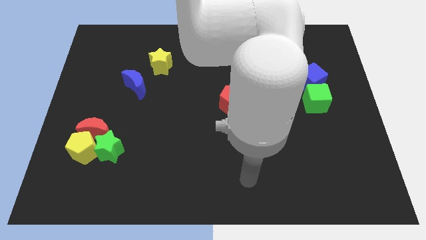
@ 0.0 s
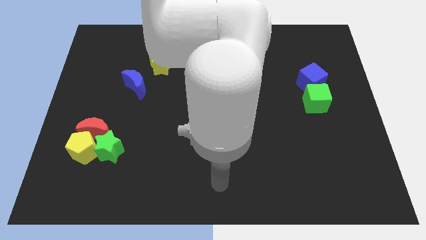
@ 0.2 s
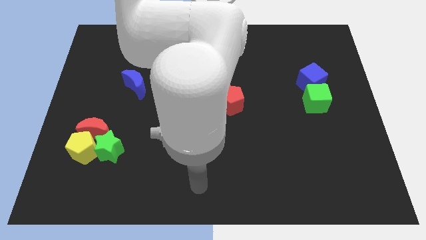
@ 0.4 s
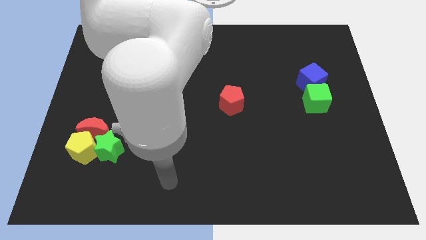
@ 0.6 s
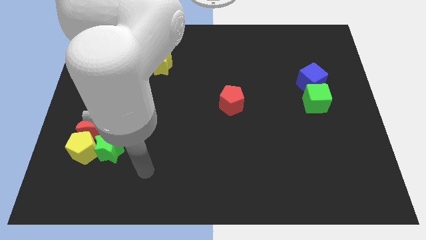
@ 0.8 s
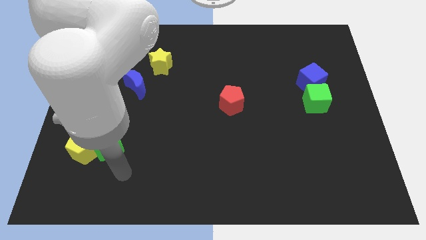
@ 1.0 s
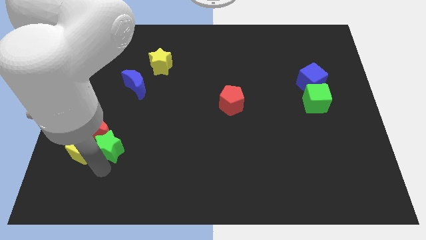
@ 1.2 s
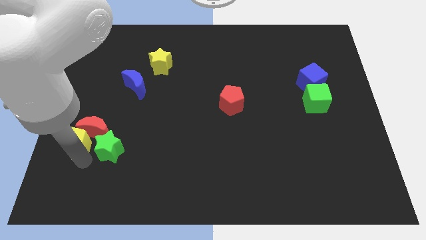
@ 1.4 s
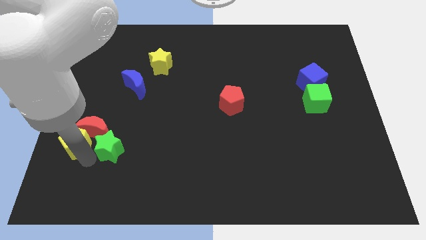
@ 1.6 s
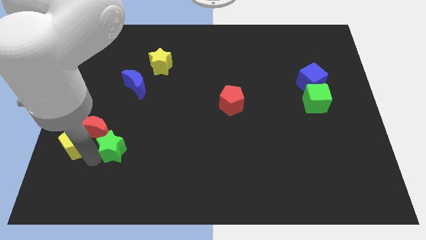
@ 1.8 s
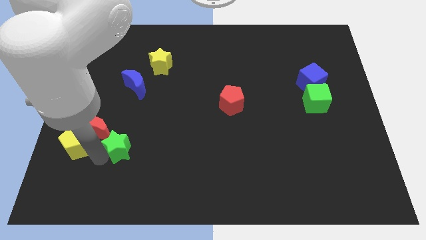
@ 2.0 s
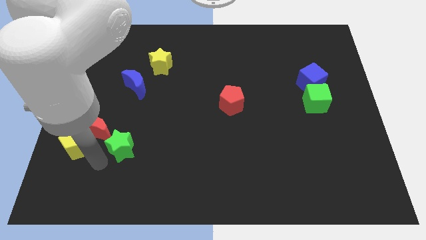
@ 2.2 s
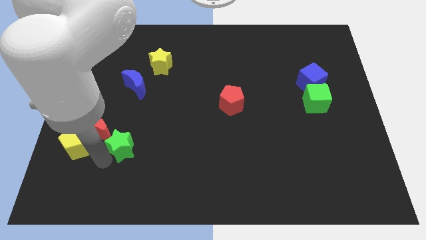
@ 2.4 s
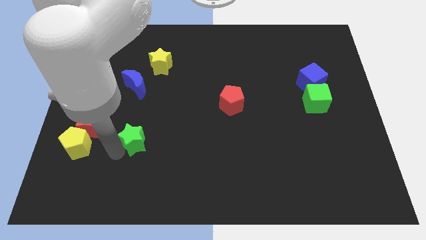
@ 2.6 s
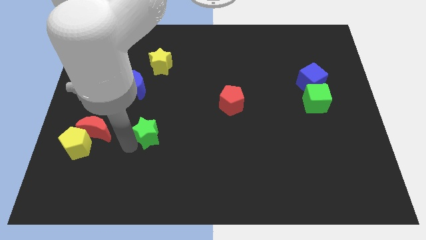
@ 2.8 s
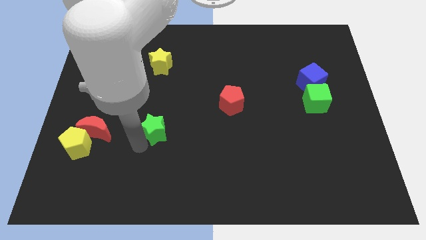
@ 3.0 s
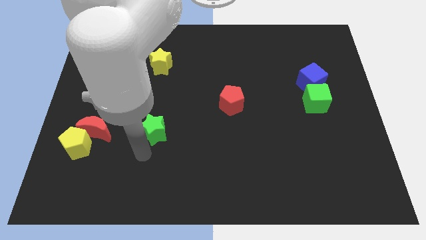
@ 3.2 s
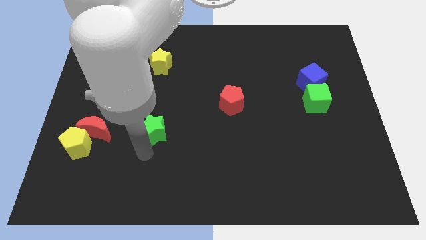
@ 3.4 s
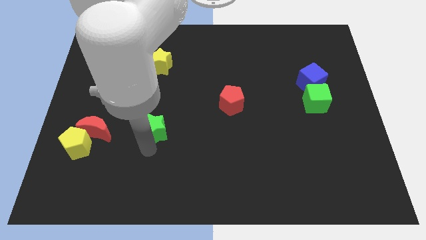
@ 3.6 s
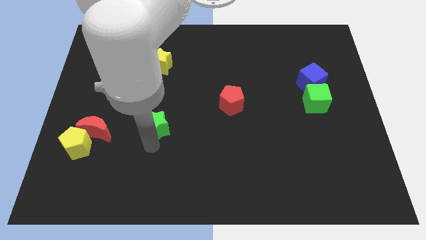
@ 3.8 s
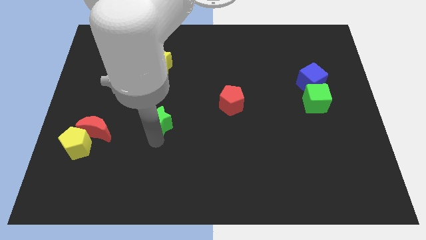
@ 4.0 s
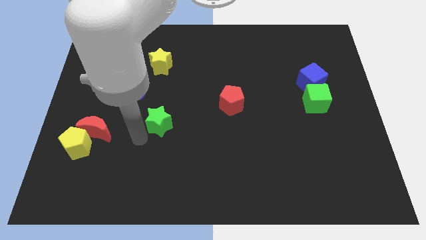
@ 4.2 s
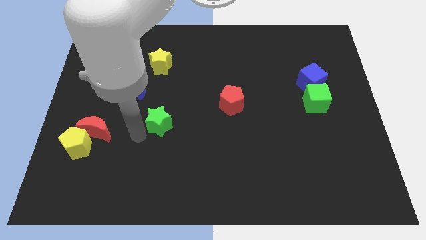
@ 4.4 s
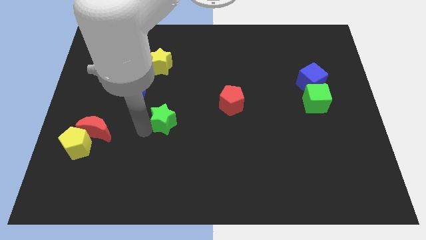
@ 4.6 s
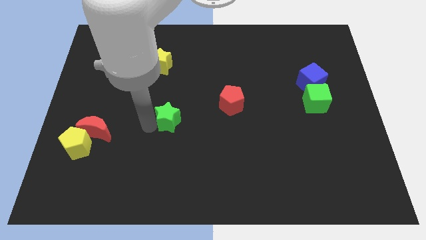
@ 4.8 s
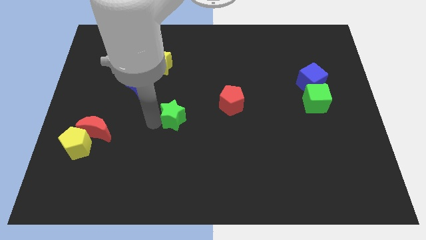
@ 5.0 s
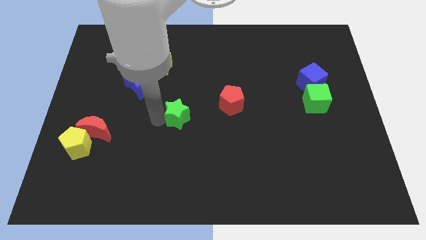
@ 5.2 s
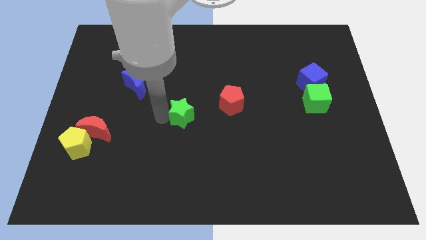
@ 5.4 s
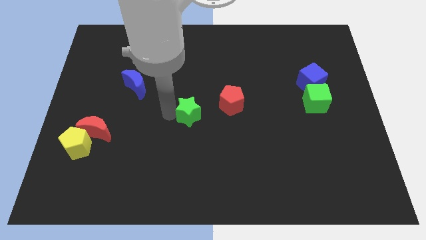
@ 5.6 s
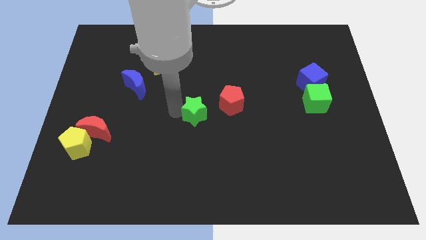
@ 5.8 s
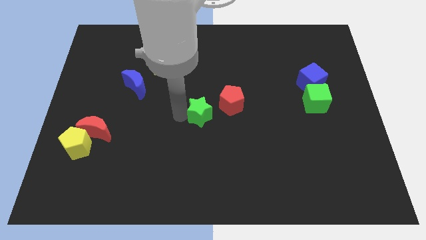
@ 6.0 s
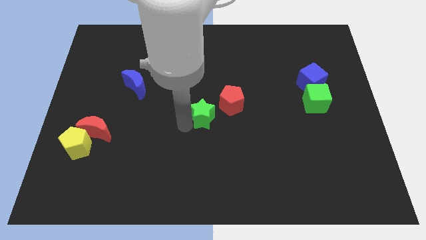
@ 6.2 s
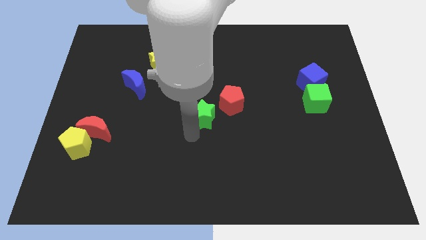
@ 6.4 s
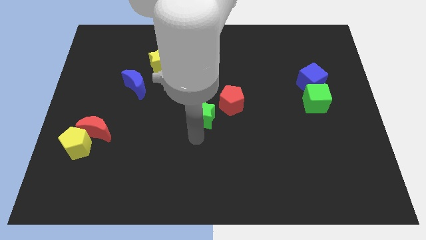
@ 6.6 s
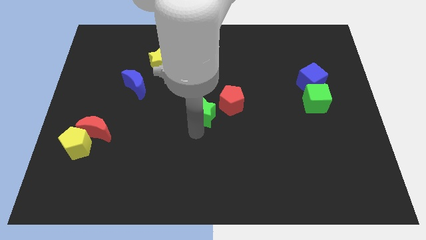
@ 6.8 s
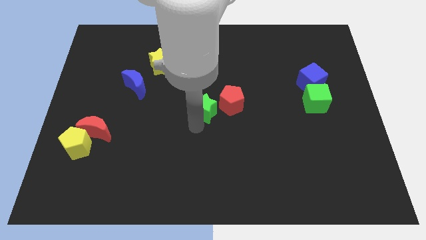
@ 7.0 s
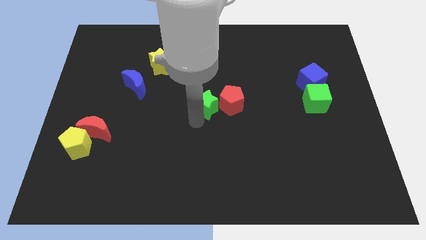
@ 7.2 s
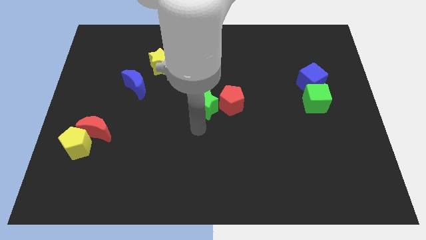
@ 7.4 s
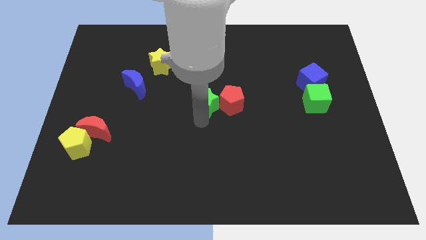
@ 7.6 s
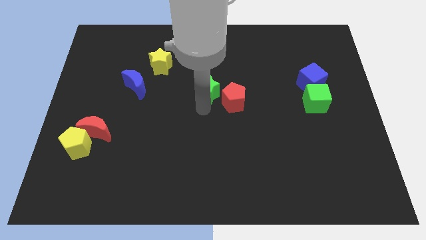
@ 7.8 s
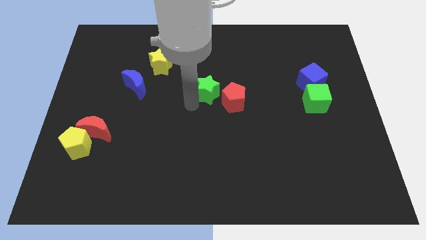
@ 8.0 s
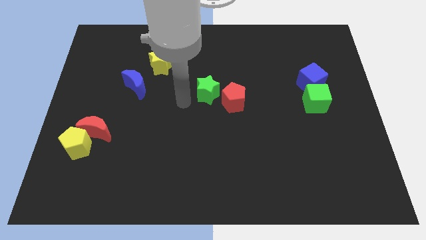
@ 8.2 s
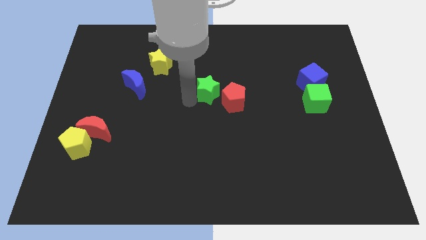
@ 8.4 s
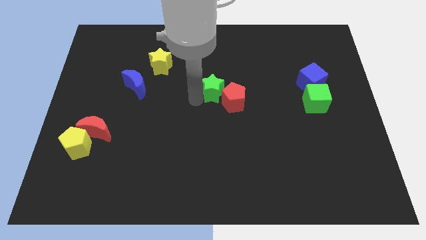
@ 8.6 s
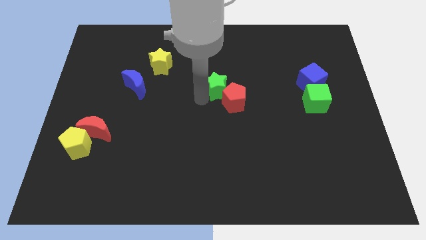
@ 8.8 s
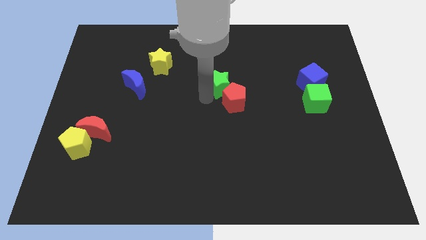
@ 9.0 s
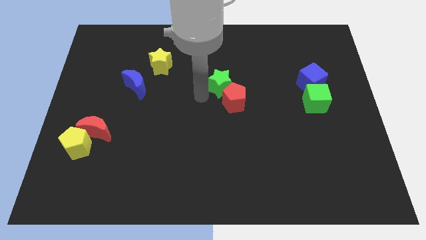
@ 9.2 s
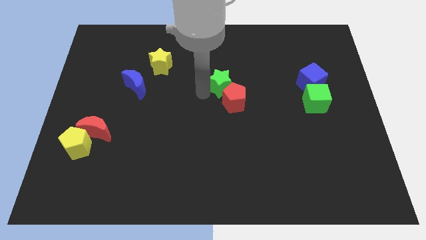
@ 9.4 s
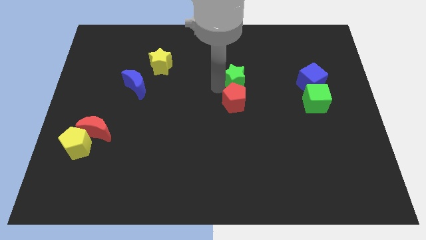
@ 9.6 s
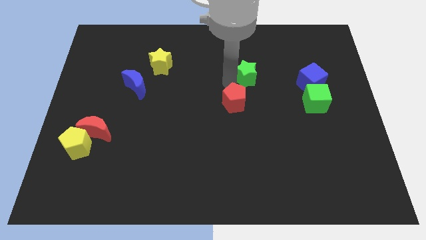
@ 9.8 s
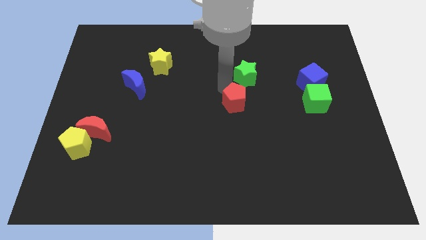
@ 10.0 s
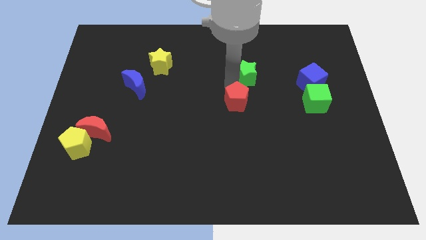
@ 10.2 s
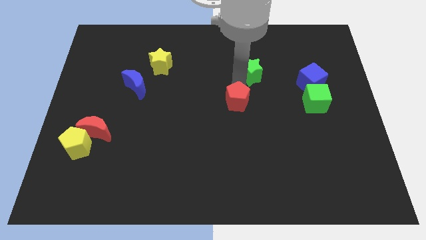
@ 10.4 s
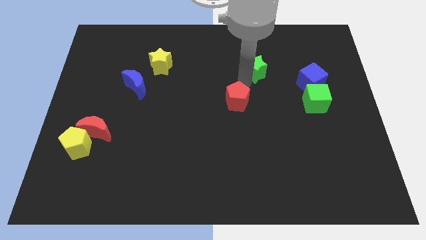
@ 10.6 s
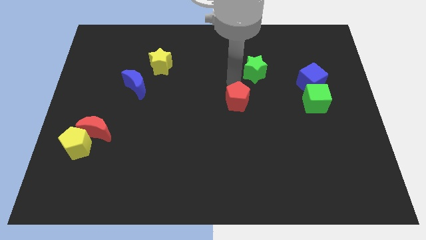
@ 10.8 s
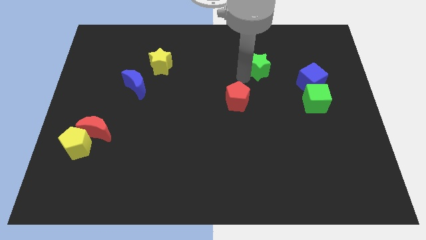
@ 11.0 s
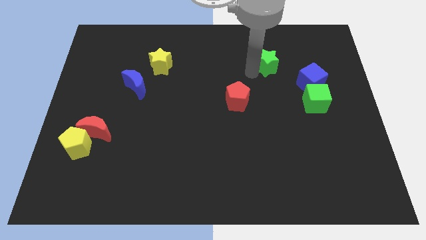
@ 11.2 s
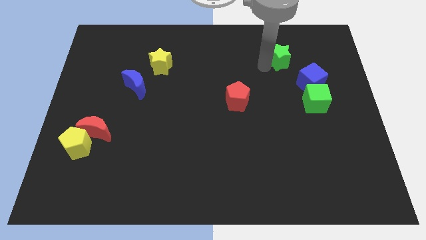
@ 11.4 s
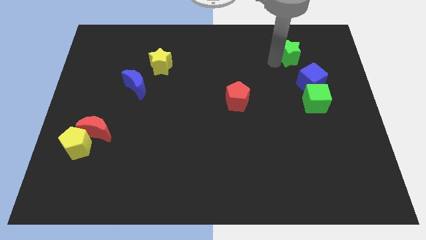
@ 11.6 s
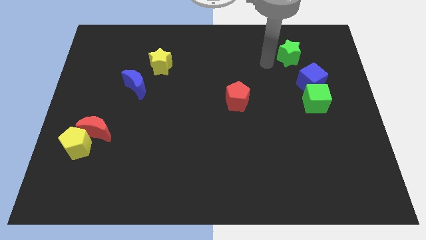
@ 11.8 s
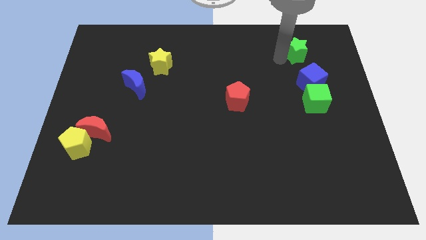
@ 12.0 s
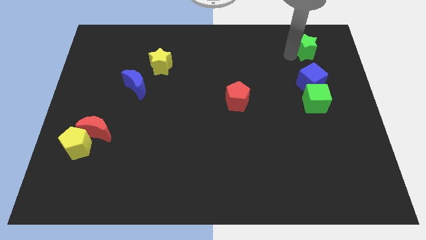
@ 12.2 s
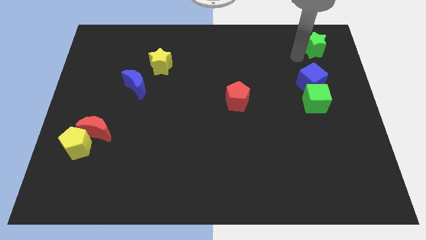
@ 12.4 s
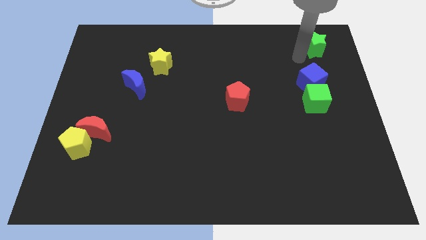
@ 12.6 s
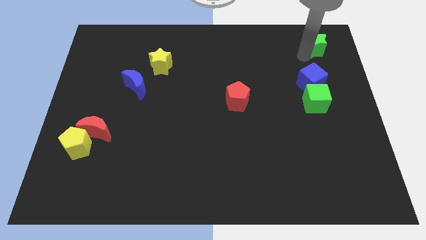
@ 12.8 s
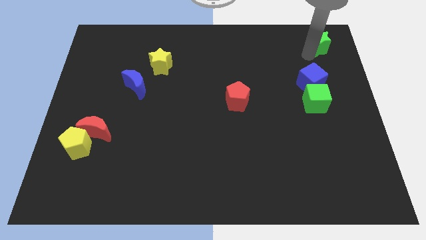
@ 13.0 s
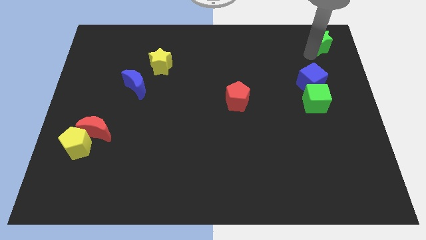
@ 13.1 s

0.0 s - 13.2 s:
put the green star to the upper right corner
